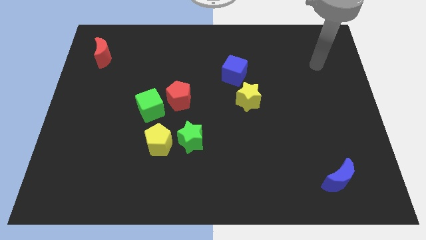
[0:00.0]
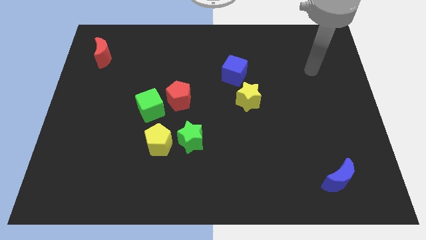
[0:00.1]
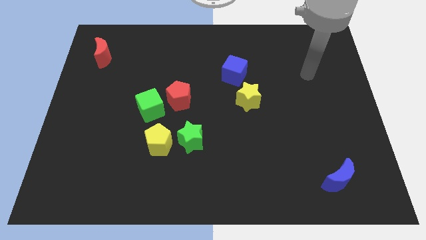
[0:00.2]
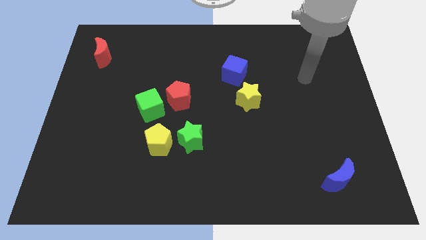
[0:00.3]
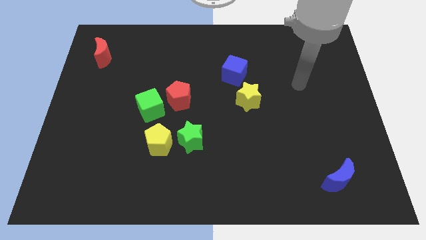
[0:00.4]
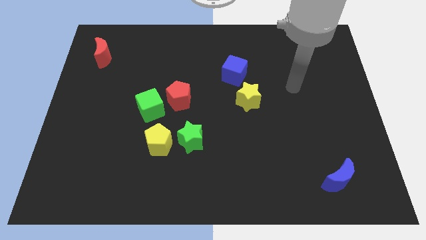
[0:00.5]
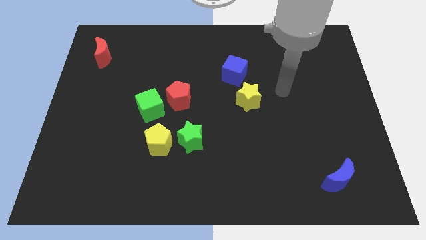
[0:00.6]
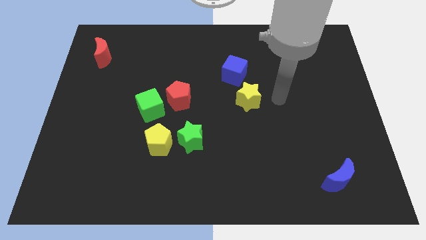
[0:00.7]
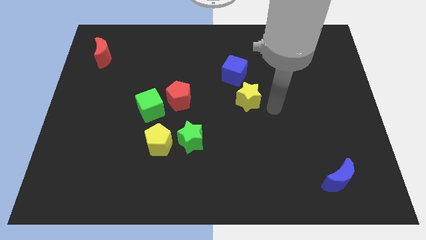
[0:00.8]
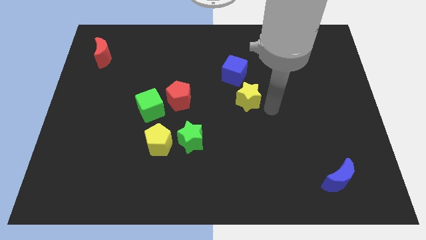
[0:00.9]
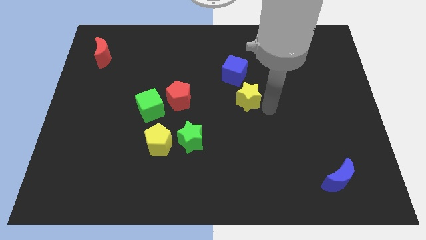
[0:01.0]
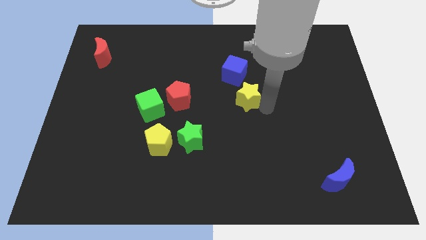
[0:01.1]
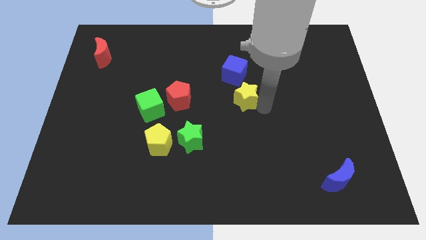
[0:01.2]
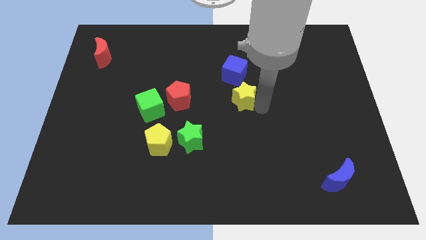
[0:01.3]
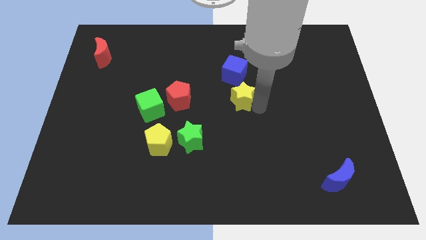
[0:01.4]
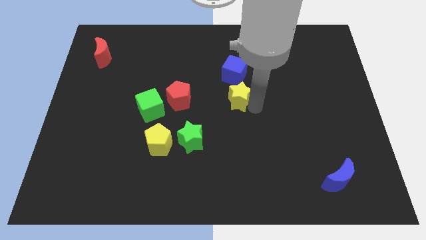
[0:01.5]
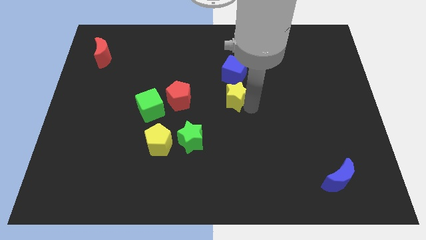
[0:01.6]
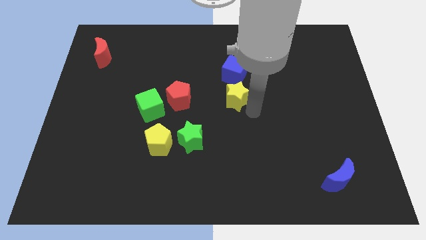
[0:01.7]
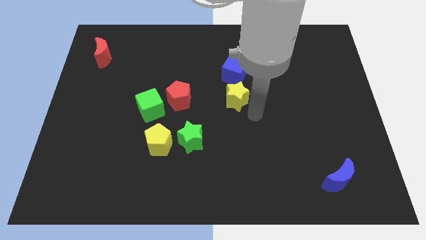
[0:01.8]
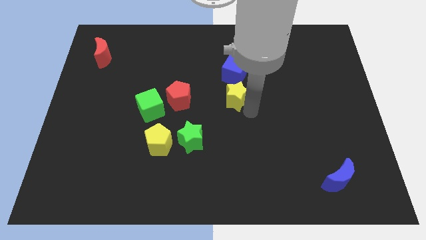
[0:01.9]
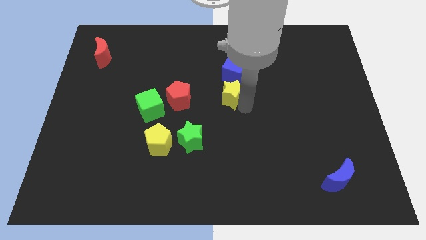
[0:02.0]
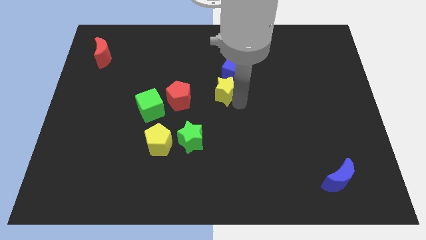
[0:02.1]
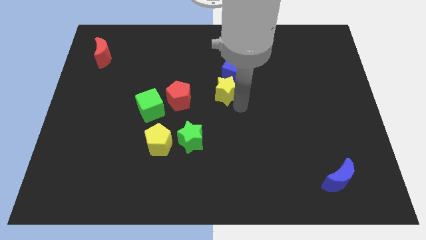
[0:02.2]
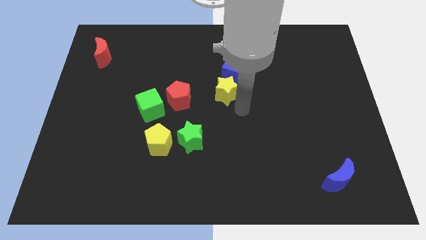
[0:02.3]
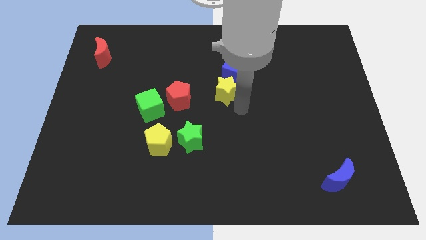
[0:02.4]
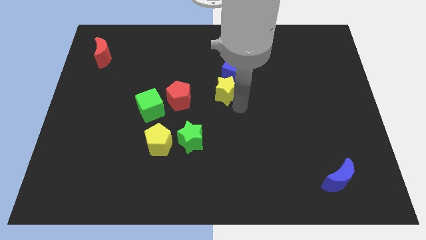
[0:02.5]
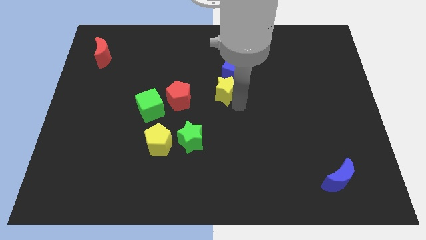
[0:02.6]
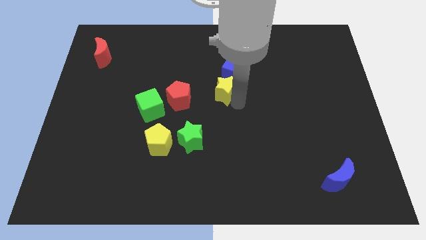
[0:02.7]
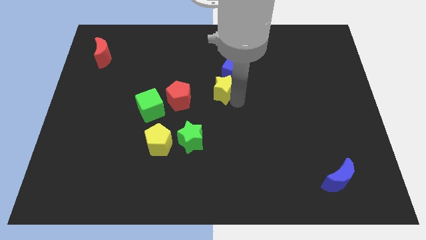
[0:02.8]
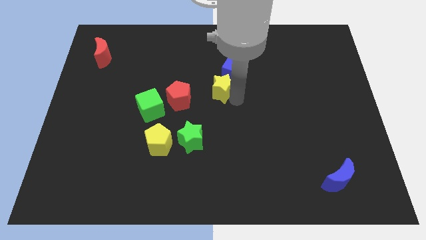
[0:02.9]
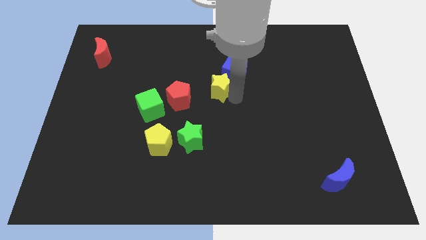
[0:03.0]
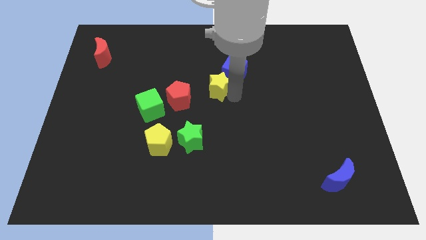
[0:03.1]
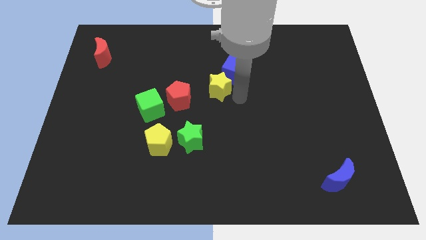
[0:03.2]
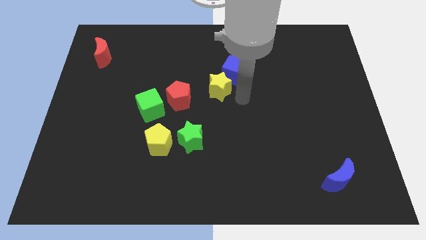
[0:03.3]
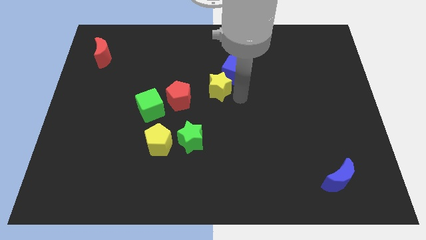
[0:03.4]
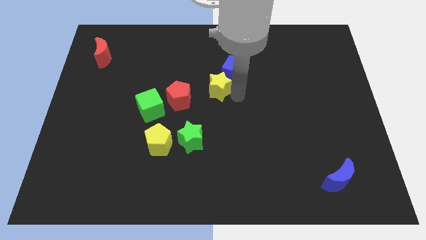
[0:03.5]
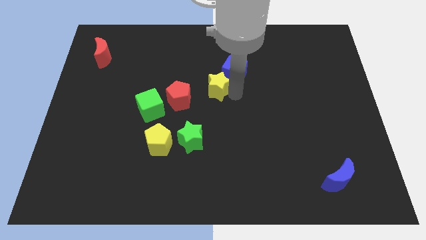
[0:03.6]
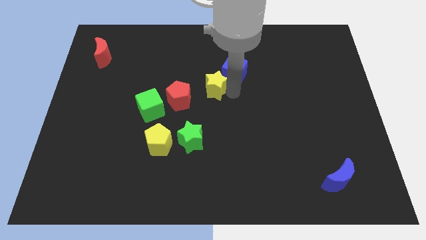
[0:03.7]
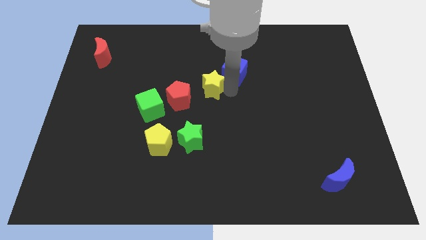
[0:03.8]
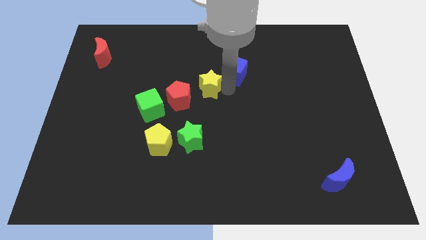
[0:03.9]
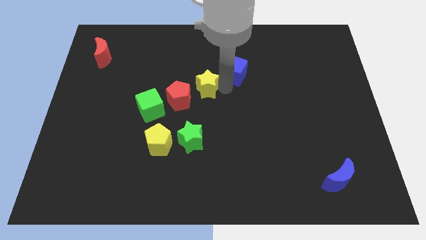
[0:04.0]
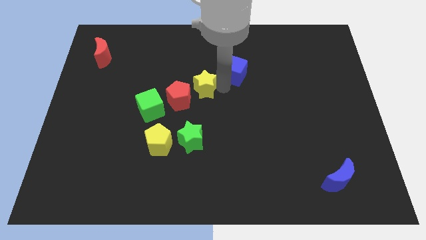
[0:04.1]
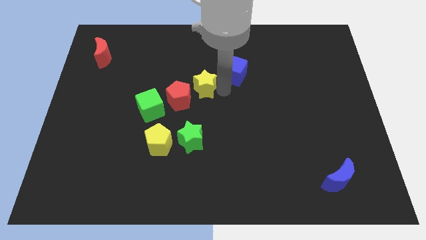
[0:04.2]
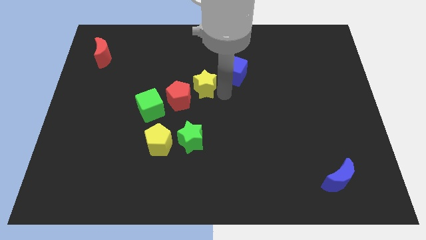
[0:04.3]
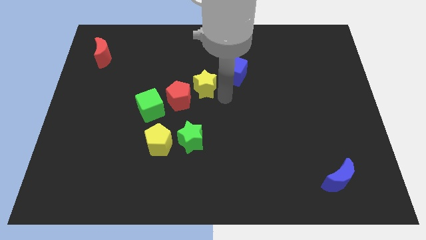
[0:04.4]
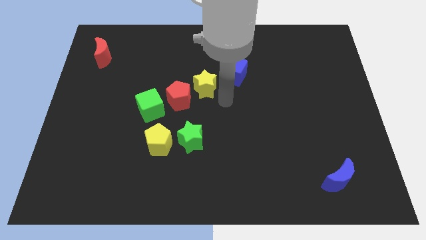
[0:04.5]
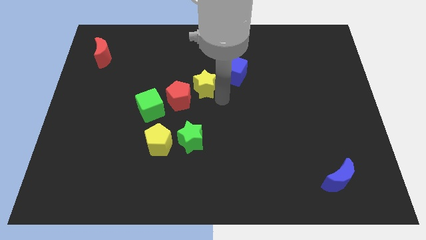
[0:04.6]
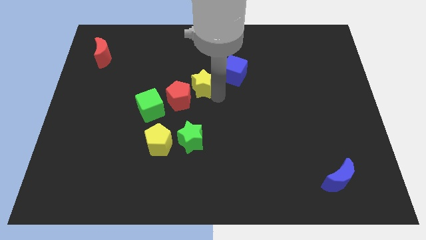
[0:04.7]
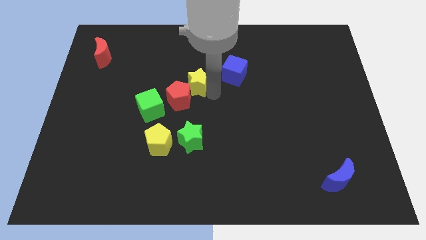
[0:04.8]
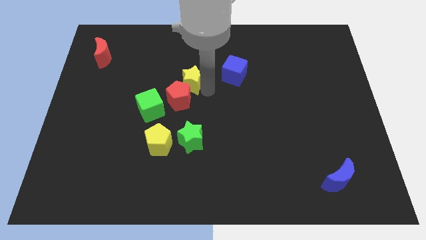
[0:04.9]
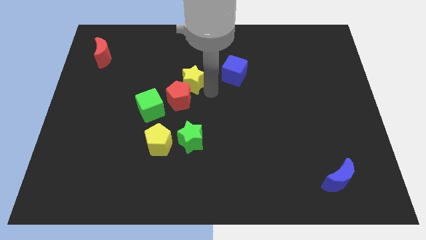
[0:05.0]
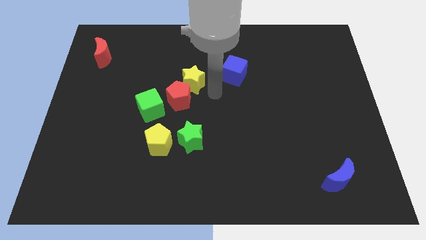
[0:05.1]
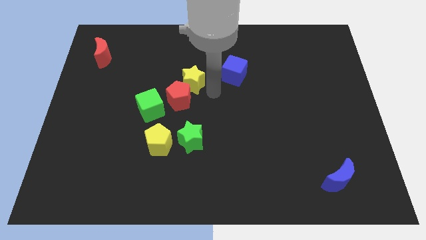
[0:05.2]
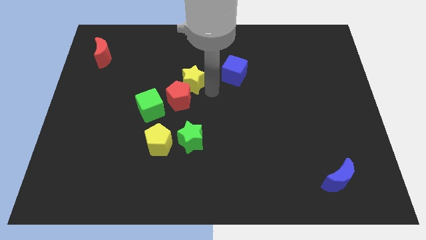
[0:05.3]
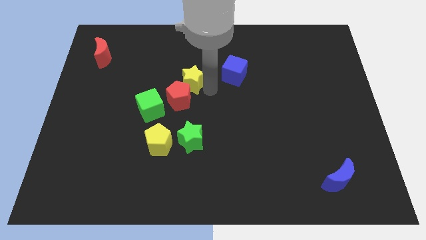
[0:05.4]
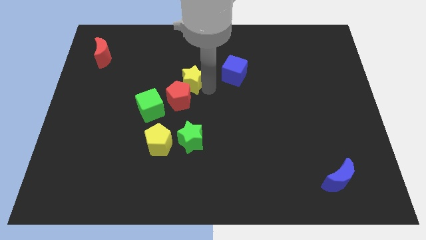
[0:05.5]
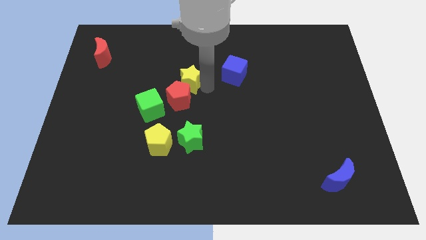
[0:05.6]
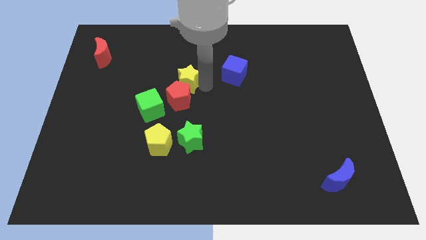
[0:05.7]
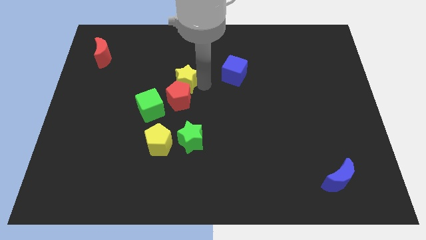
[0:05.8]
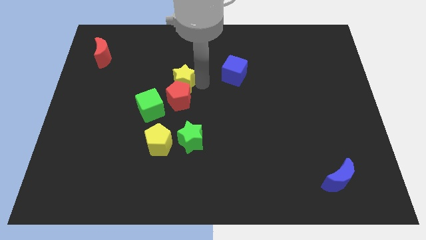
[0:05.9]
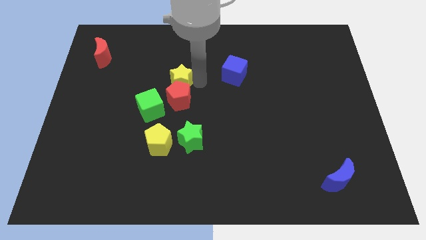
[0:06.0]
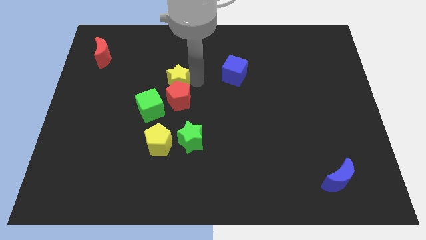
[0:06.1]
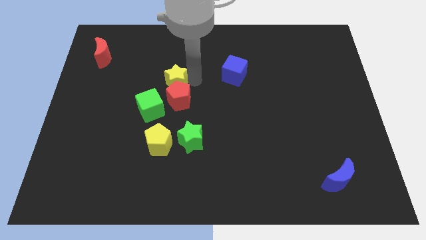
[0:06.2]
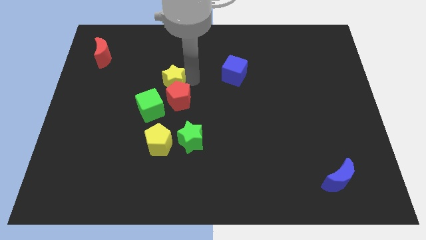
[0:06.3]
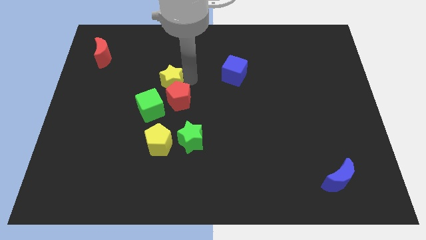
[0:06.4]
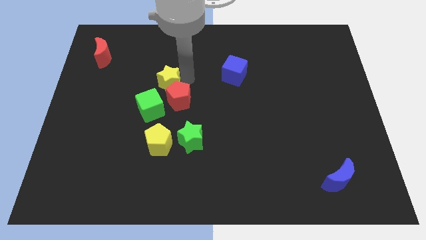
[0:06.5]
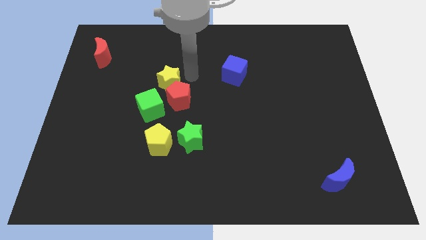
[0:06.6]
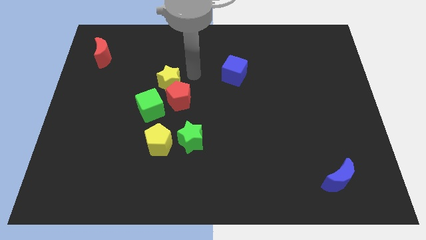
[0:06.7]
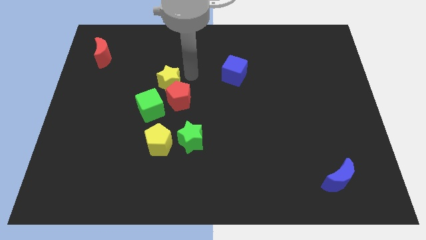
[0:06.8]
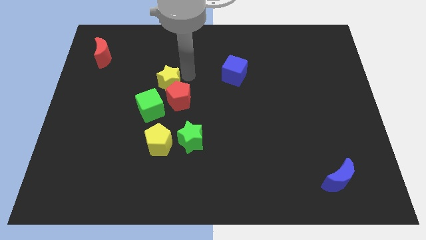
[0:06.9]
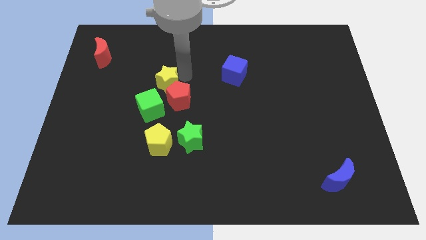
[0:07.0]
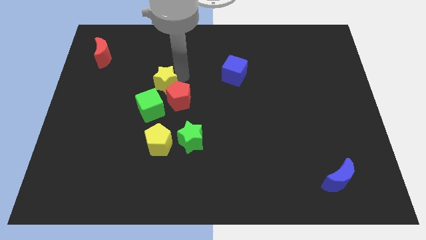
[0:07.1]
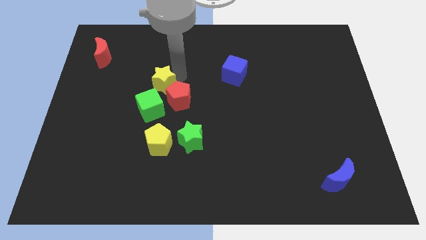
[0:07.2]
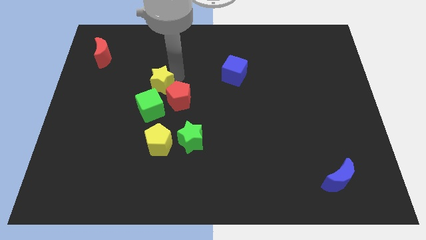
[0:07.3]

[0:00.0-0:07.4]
move the yellow star to the left side of the red pentagon
